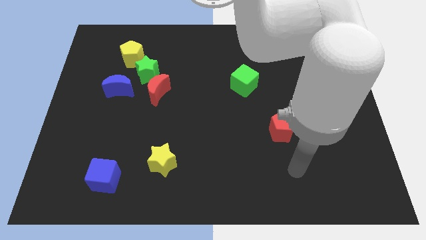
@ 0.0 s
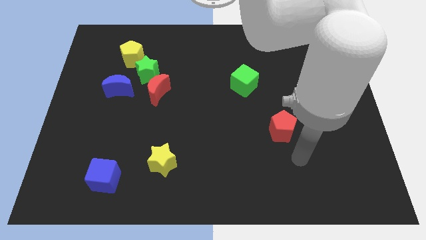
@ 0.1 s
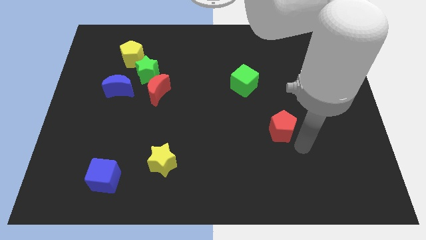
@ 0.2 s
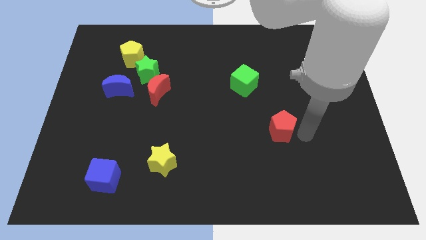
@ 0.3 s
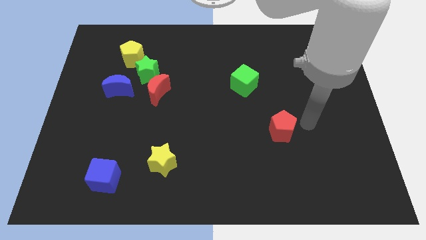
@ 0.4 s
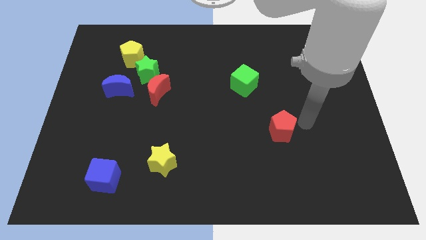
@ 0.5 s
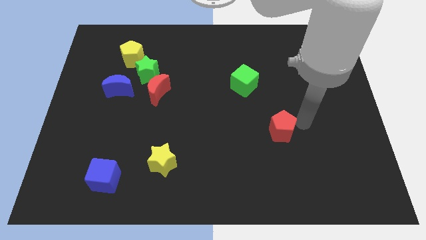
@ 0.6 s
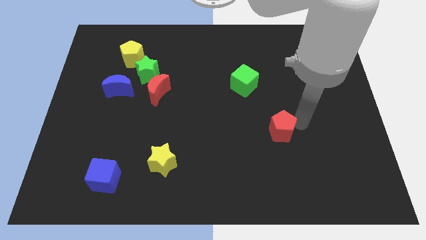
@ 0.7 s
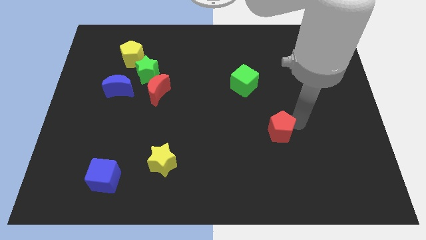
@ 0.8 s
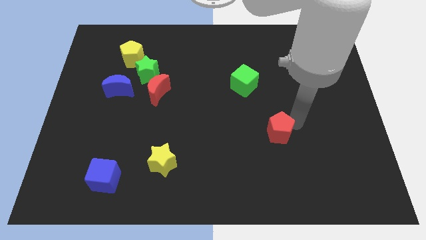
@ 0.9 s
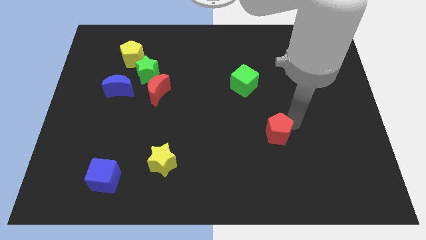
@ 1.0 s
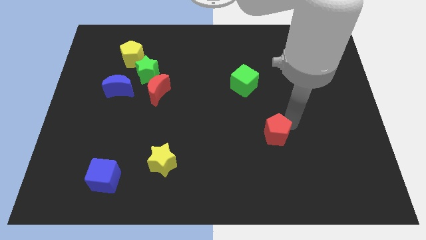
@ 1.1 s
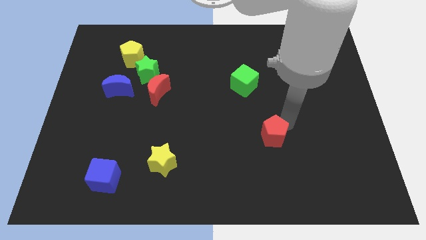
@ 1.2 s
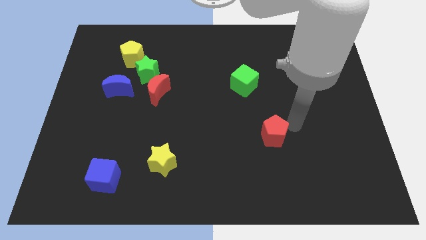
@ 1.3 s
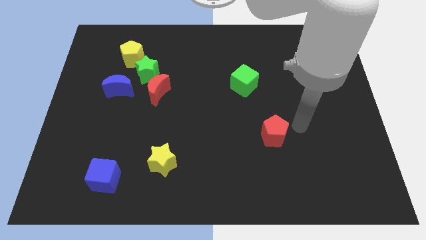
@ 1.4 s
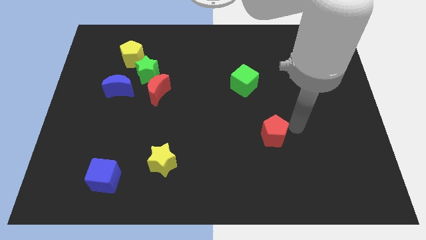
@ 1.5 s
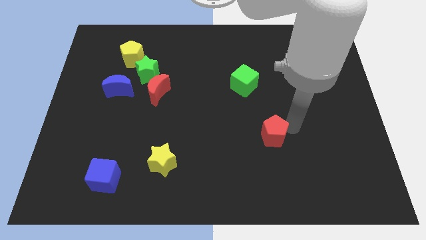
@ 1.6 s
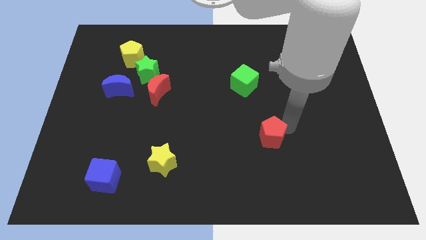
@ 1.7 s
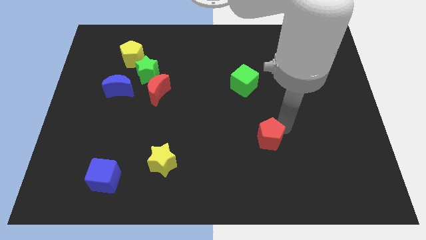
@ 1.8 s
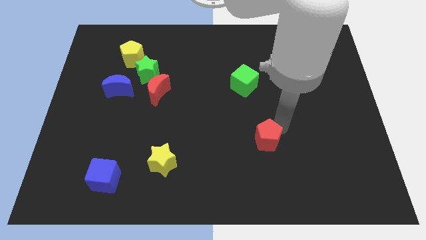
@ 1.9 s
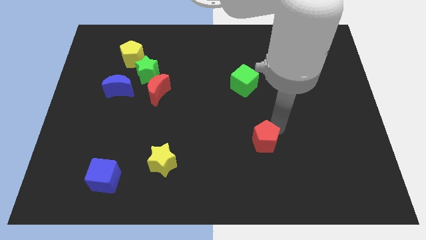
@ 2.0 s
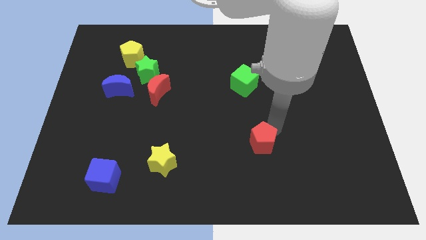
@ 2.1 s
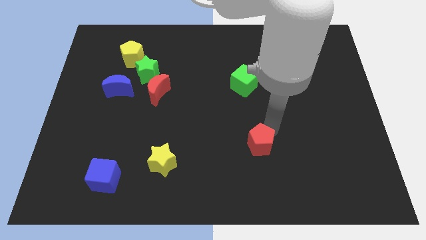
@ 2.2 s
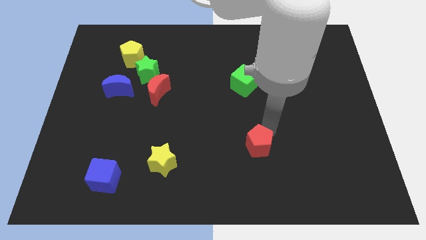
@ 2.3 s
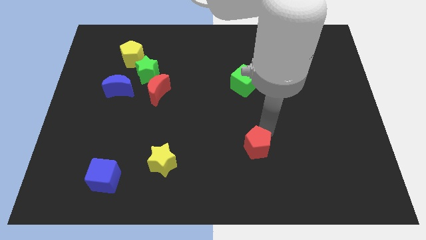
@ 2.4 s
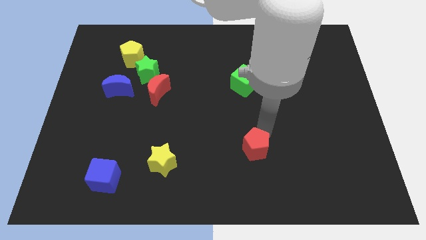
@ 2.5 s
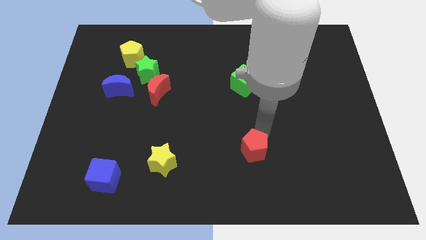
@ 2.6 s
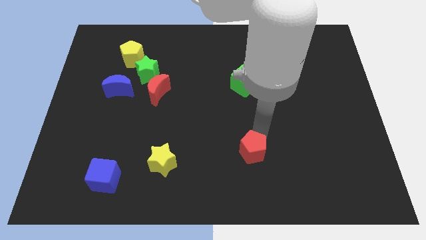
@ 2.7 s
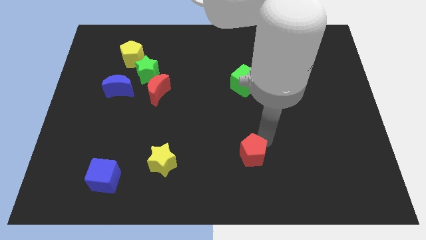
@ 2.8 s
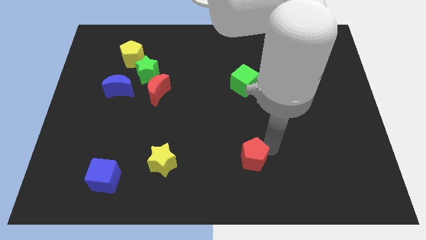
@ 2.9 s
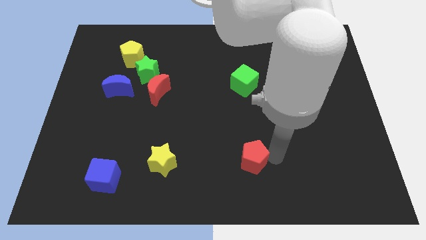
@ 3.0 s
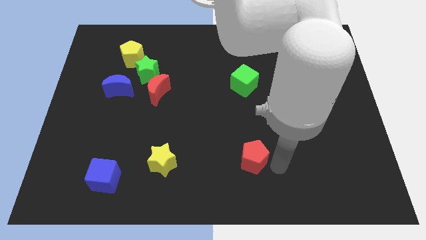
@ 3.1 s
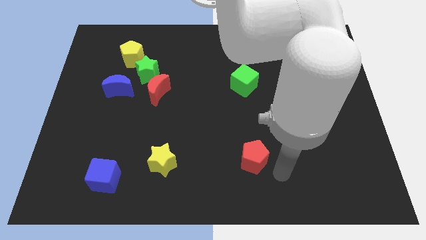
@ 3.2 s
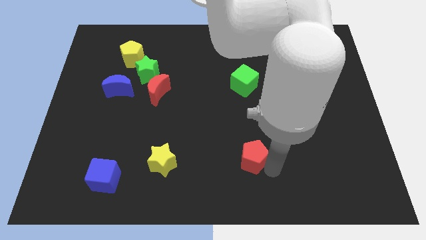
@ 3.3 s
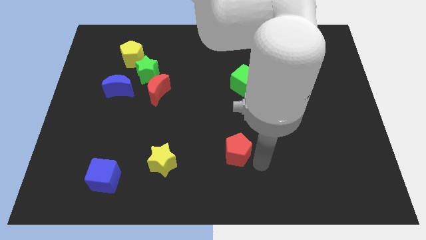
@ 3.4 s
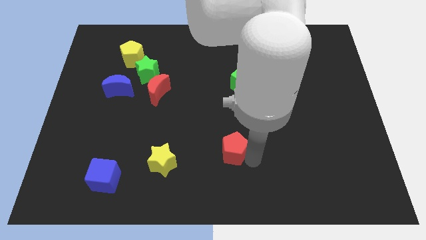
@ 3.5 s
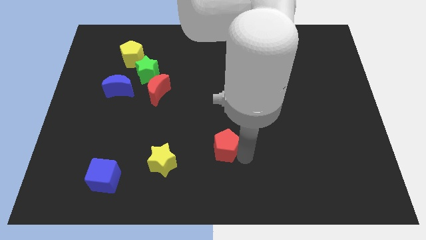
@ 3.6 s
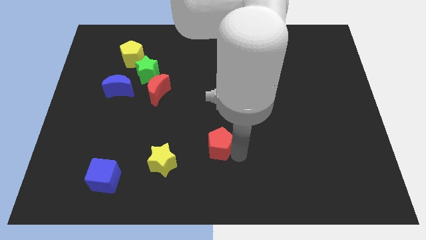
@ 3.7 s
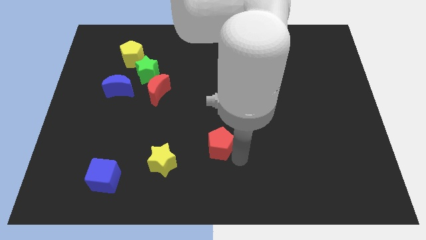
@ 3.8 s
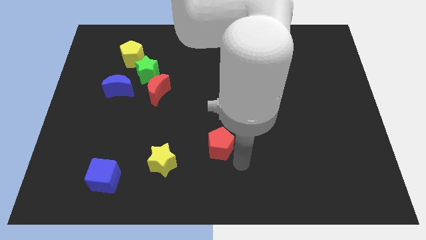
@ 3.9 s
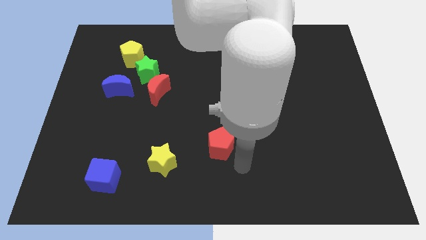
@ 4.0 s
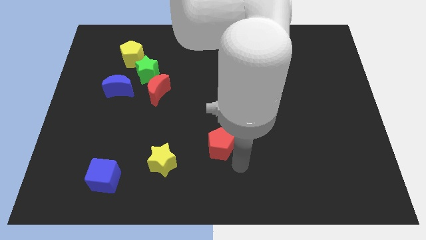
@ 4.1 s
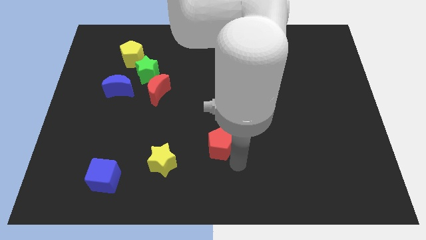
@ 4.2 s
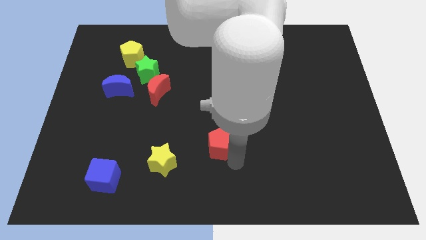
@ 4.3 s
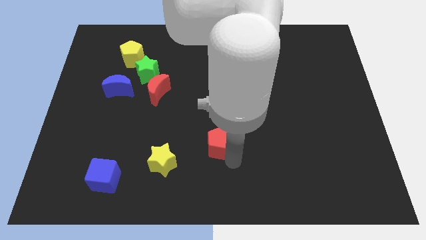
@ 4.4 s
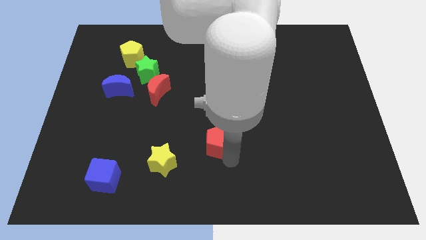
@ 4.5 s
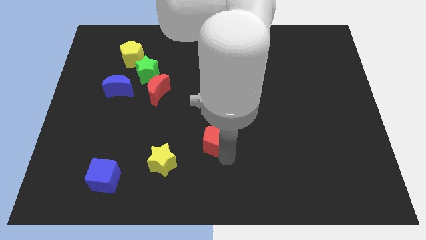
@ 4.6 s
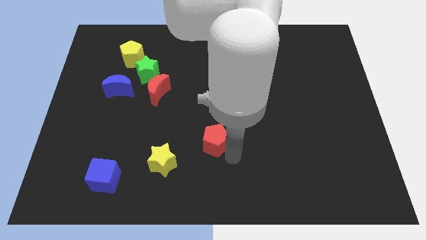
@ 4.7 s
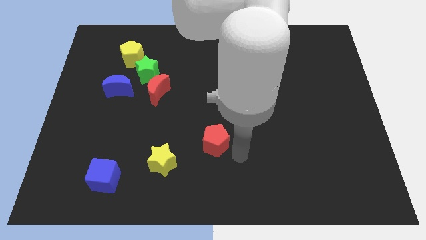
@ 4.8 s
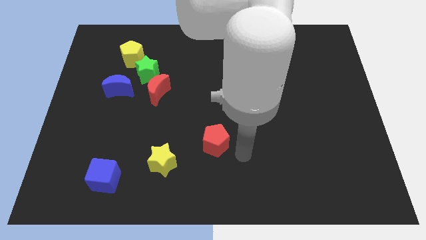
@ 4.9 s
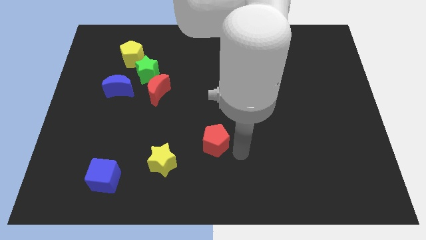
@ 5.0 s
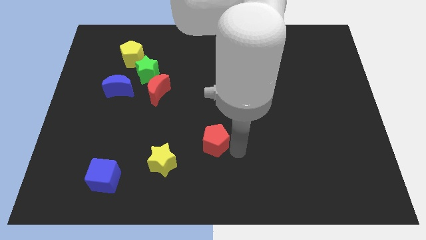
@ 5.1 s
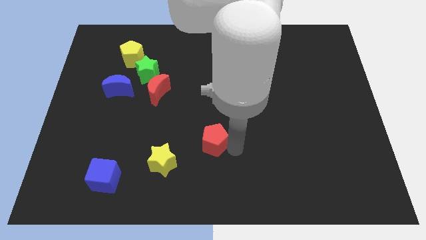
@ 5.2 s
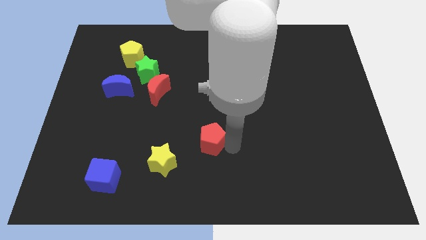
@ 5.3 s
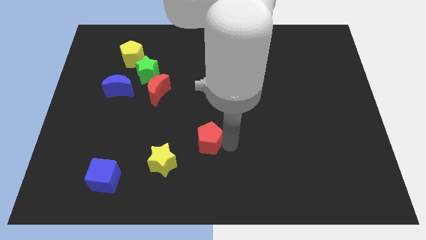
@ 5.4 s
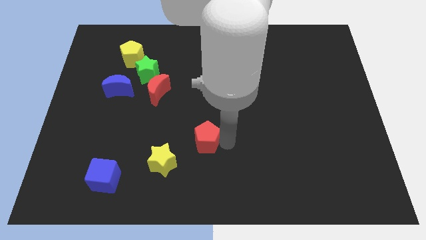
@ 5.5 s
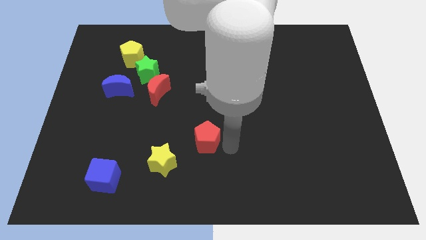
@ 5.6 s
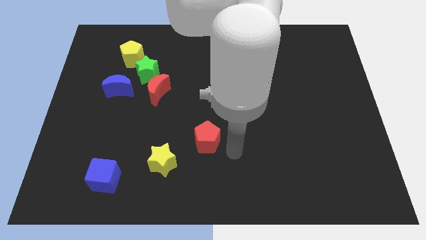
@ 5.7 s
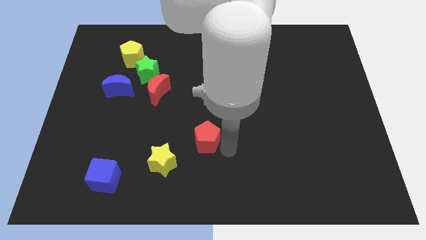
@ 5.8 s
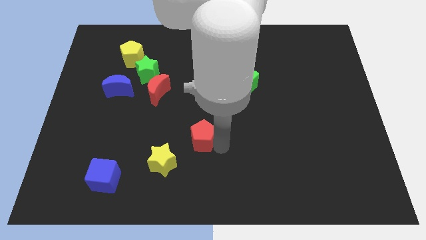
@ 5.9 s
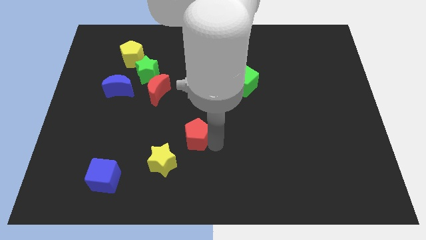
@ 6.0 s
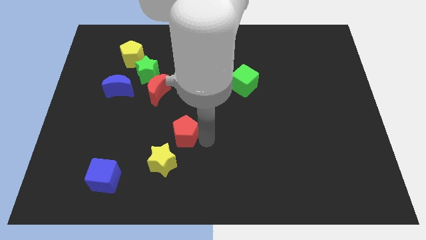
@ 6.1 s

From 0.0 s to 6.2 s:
move the red pentagon to the left

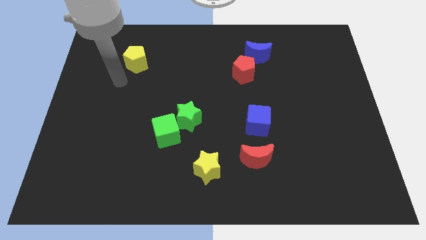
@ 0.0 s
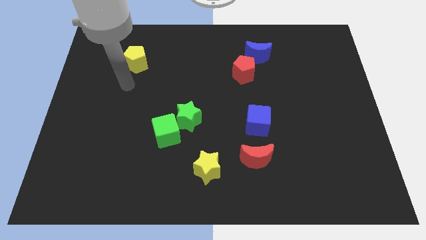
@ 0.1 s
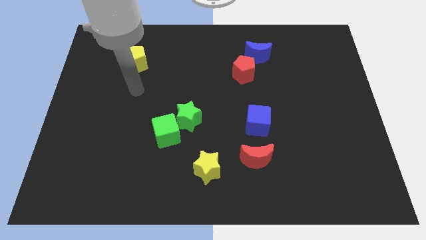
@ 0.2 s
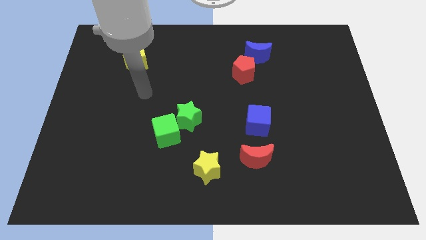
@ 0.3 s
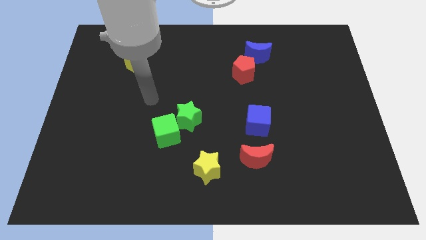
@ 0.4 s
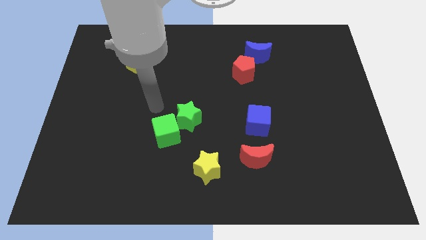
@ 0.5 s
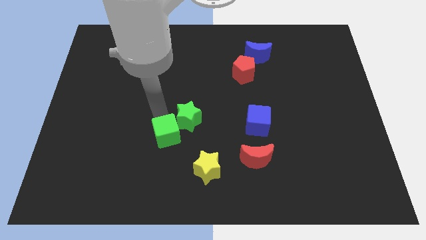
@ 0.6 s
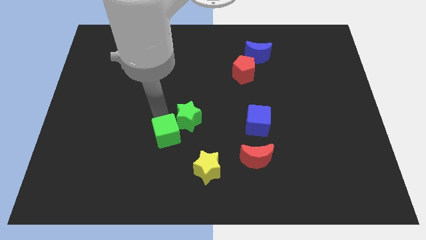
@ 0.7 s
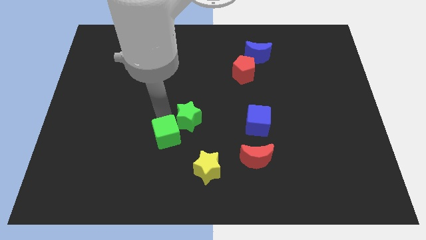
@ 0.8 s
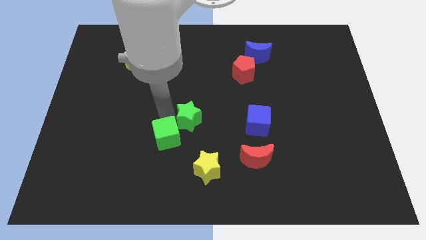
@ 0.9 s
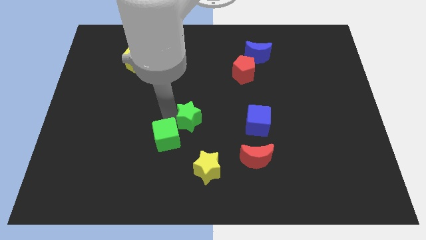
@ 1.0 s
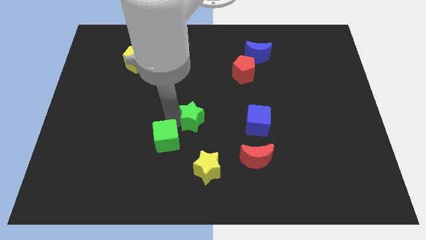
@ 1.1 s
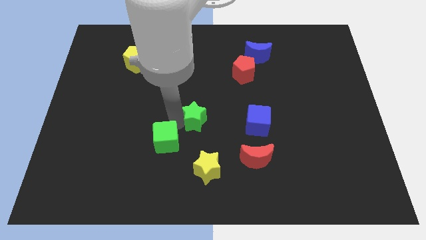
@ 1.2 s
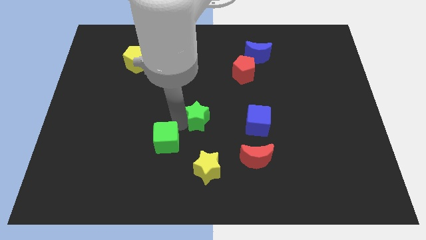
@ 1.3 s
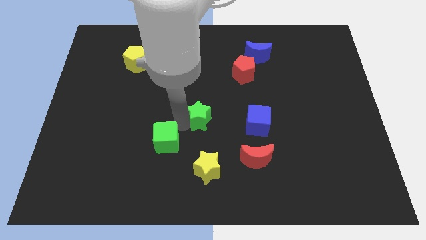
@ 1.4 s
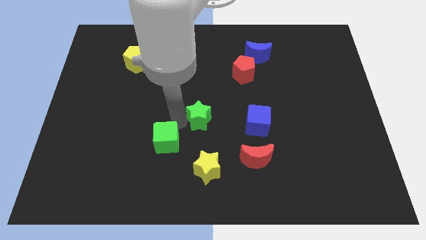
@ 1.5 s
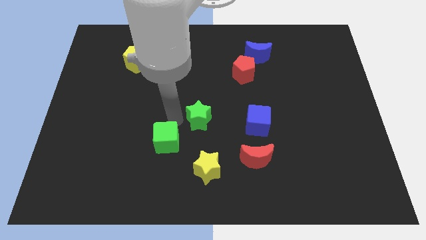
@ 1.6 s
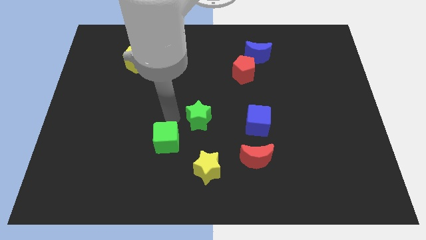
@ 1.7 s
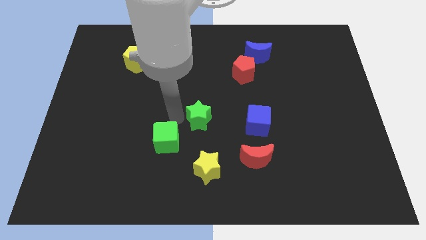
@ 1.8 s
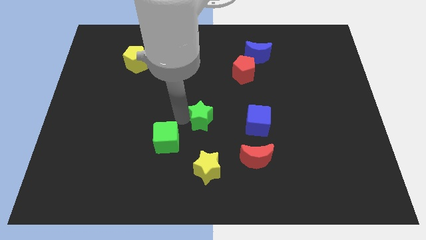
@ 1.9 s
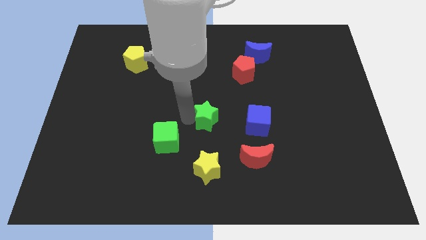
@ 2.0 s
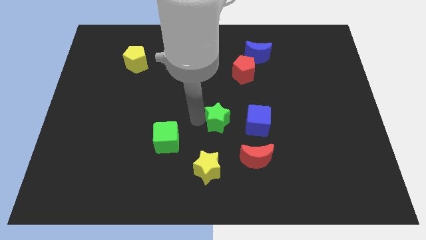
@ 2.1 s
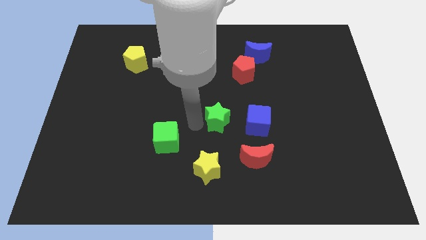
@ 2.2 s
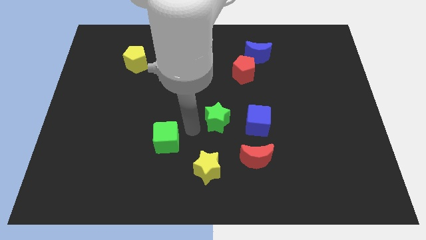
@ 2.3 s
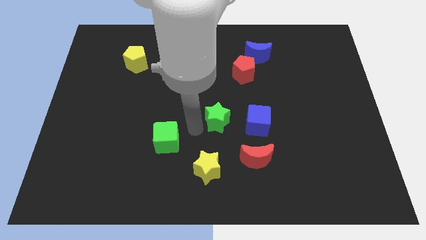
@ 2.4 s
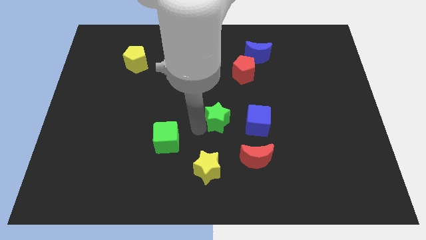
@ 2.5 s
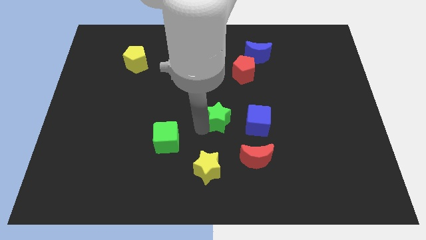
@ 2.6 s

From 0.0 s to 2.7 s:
push the green star a bit right
